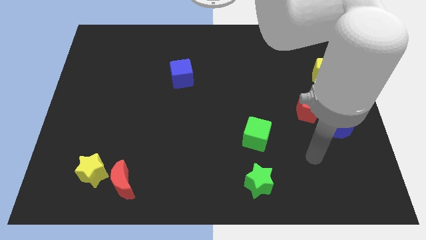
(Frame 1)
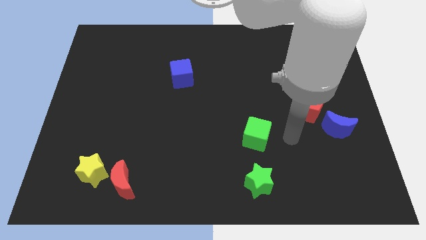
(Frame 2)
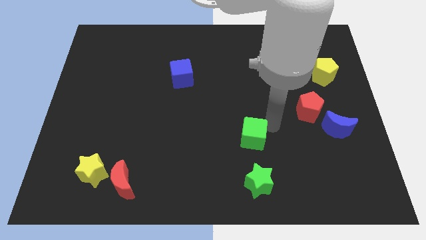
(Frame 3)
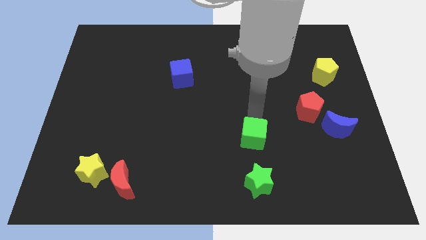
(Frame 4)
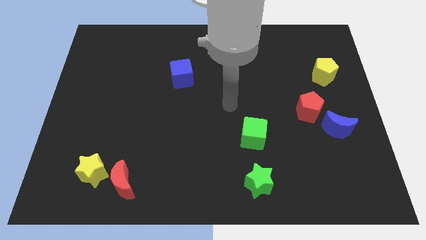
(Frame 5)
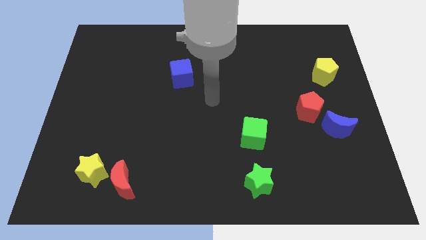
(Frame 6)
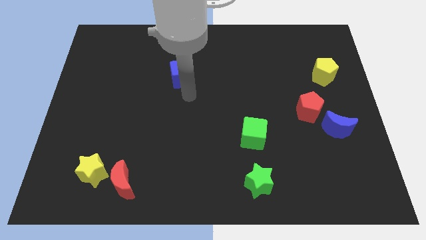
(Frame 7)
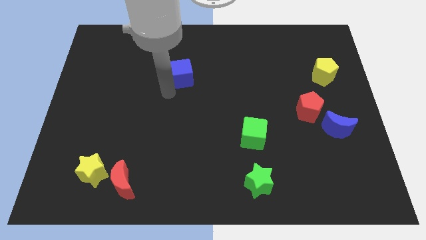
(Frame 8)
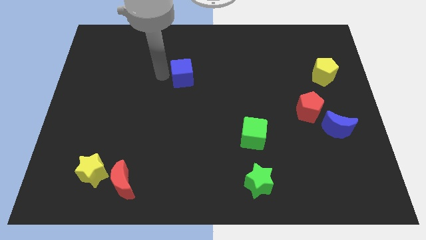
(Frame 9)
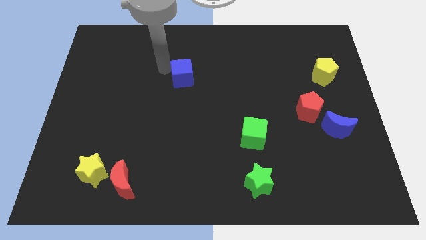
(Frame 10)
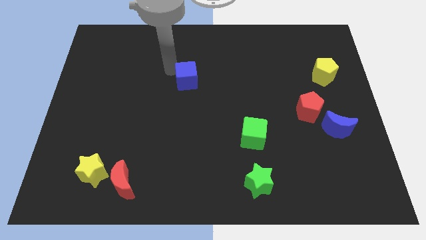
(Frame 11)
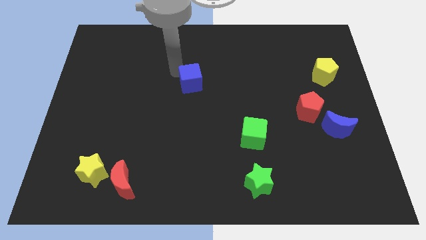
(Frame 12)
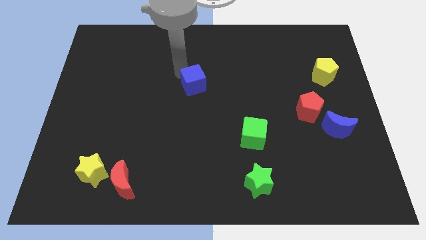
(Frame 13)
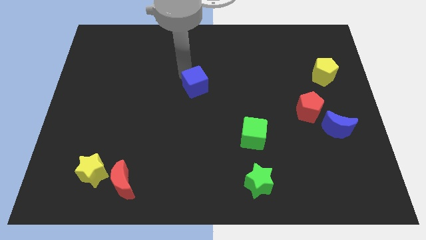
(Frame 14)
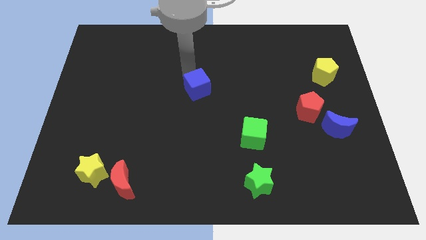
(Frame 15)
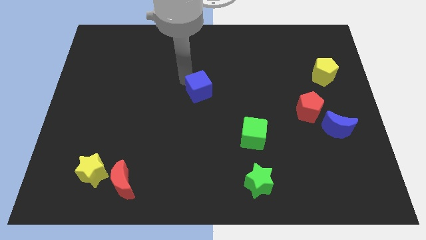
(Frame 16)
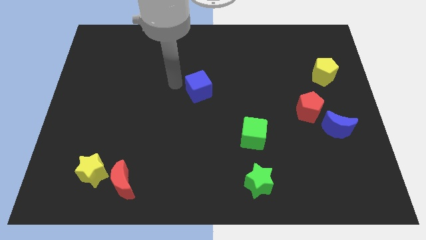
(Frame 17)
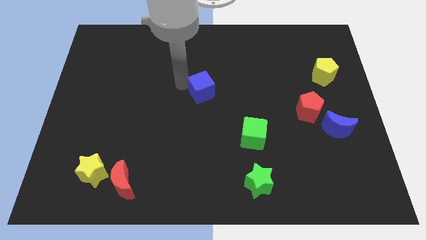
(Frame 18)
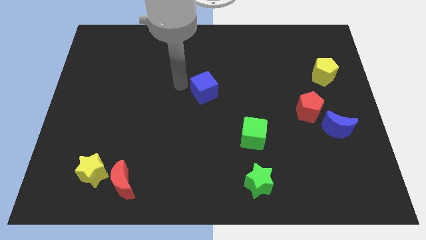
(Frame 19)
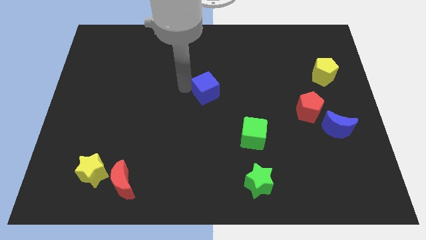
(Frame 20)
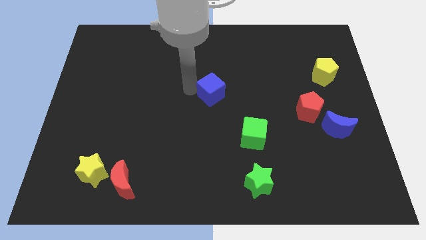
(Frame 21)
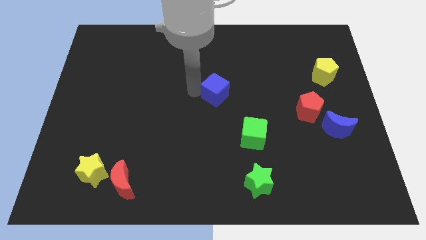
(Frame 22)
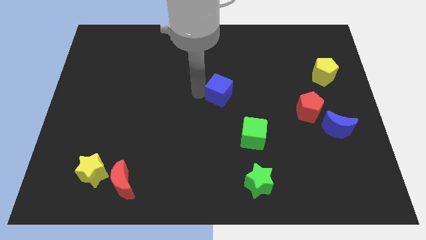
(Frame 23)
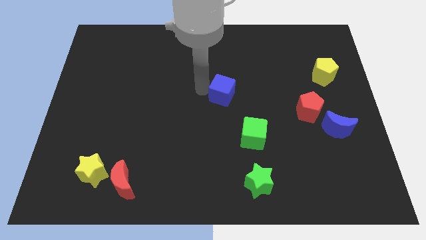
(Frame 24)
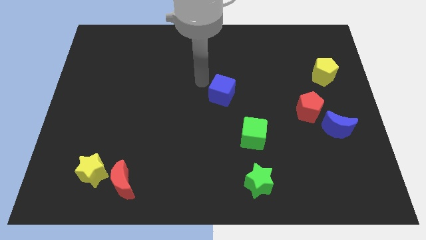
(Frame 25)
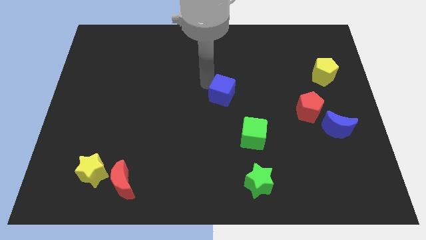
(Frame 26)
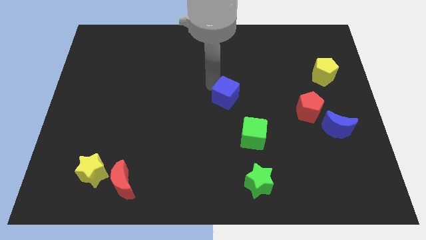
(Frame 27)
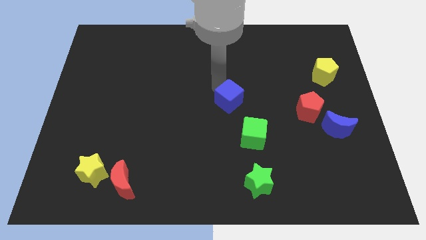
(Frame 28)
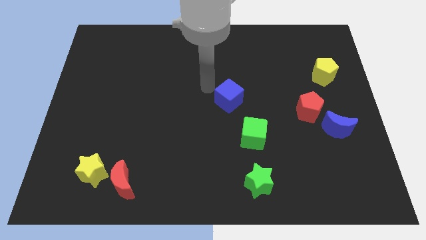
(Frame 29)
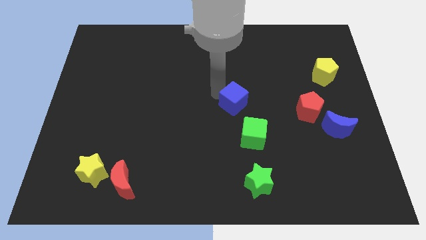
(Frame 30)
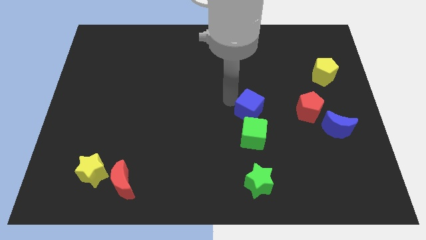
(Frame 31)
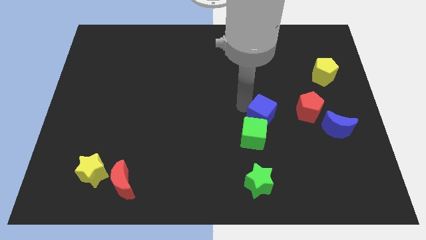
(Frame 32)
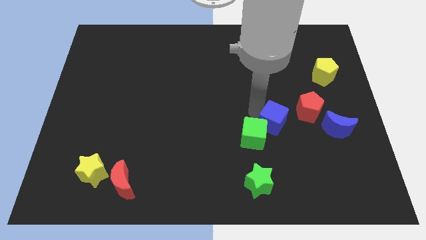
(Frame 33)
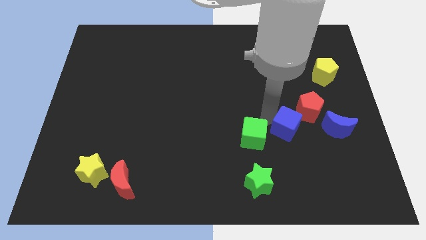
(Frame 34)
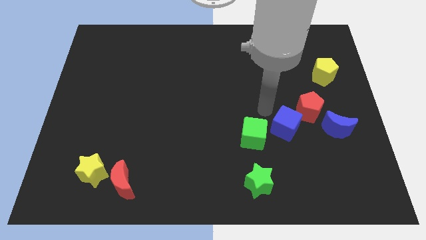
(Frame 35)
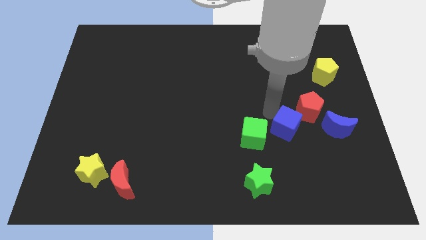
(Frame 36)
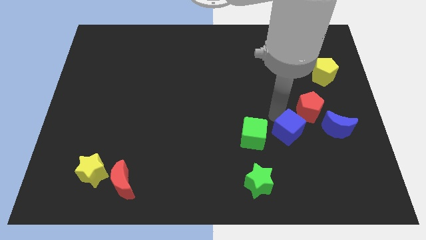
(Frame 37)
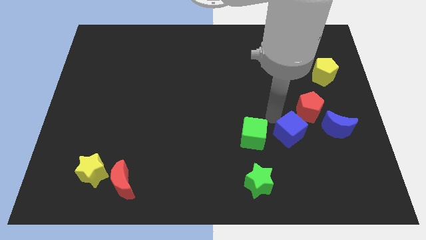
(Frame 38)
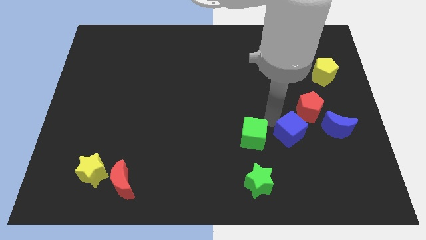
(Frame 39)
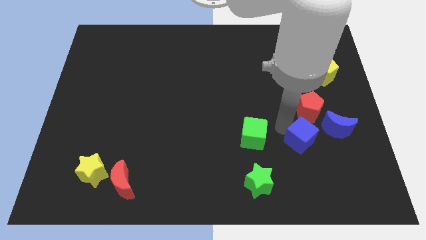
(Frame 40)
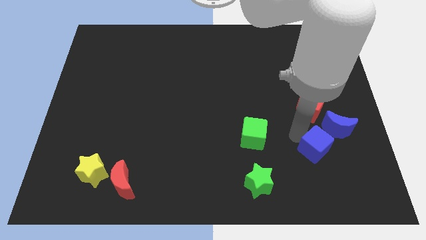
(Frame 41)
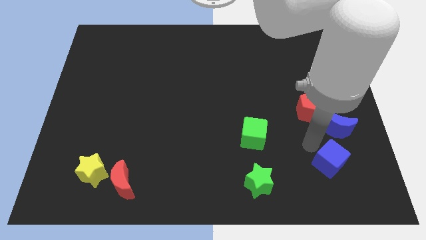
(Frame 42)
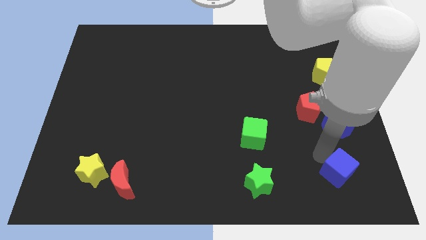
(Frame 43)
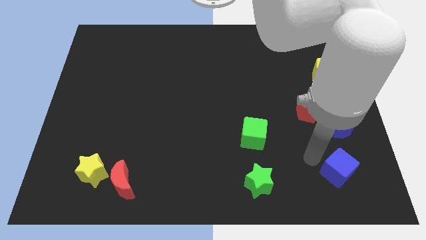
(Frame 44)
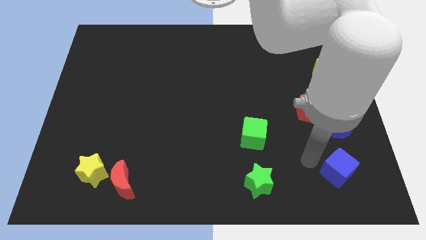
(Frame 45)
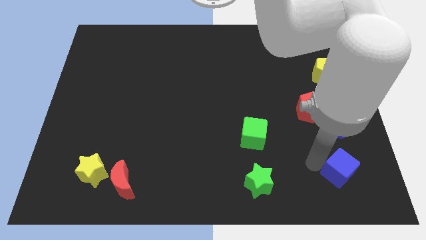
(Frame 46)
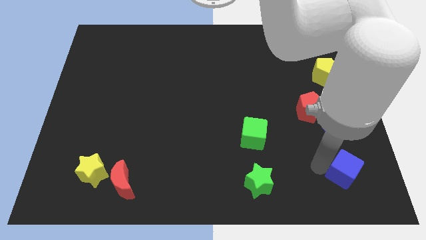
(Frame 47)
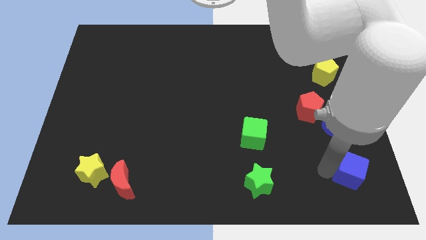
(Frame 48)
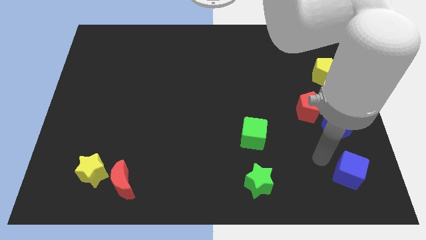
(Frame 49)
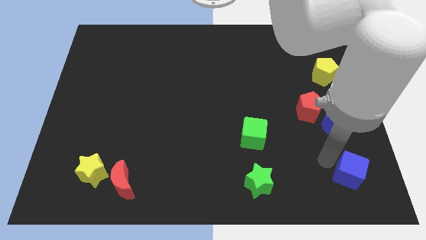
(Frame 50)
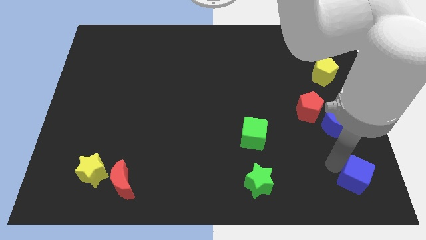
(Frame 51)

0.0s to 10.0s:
push the blue cube to the lower right corner
